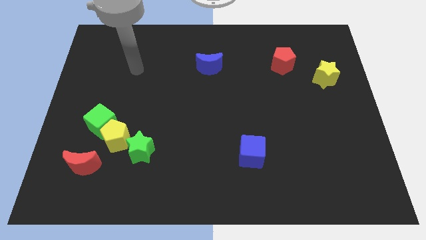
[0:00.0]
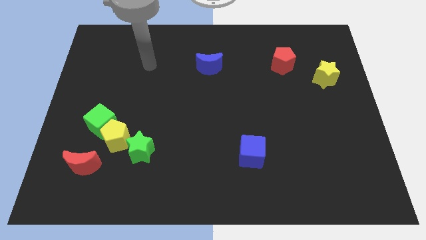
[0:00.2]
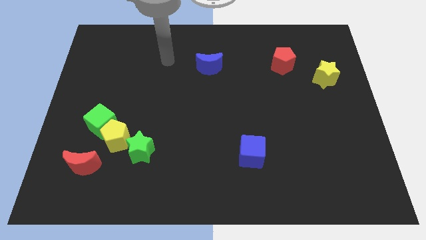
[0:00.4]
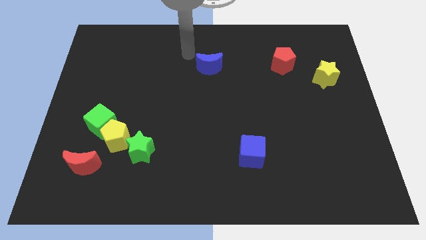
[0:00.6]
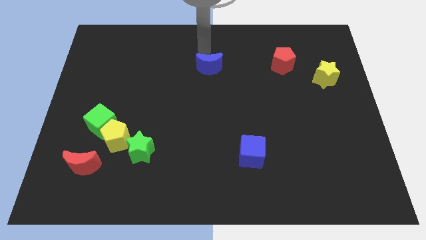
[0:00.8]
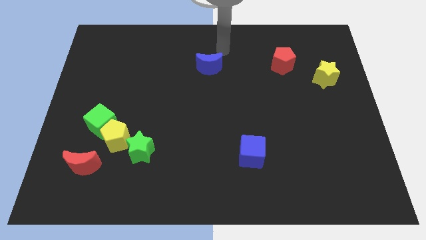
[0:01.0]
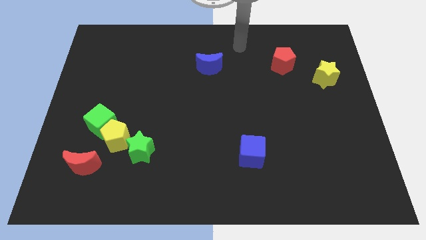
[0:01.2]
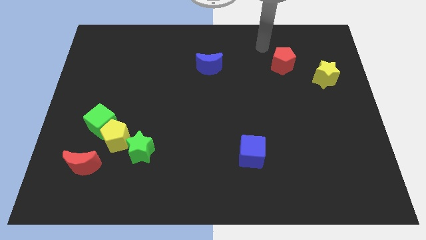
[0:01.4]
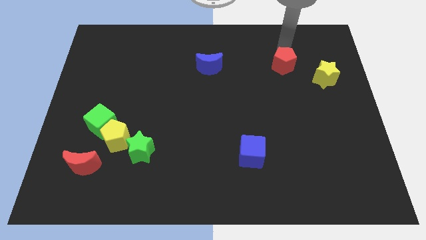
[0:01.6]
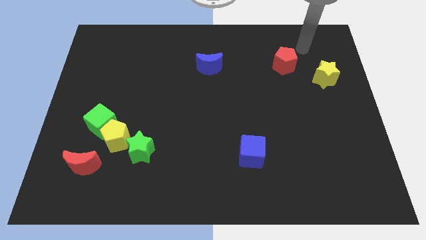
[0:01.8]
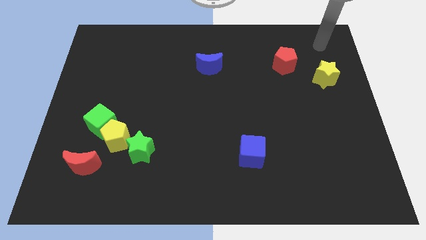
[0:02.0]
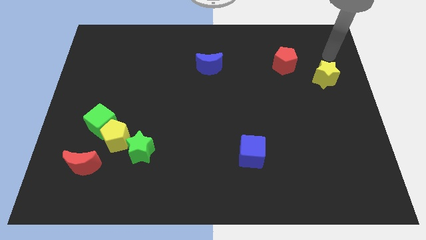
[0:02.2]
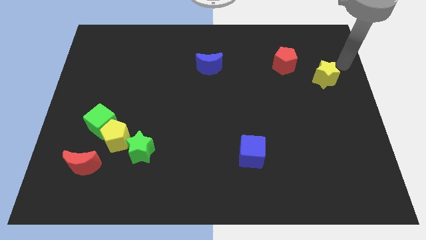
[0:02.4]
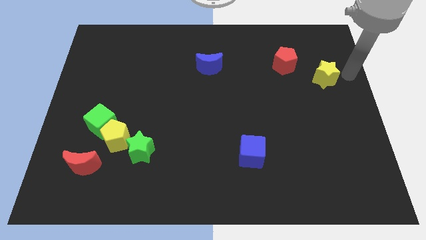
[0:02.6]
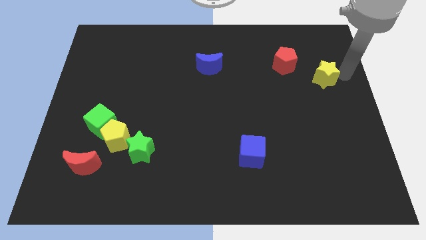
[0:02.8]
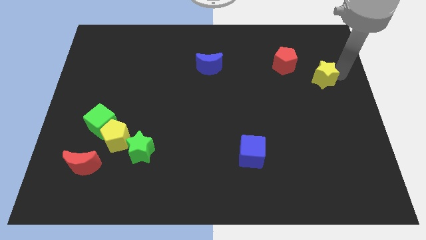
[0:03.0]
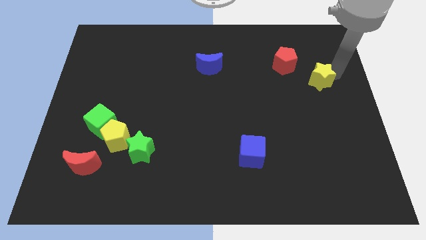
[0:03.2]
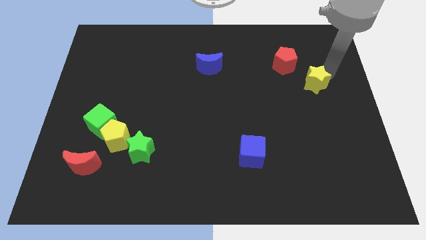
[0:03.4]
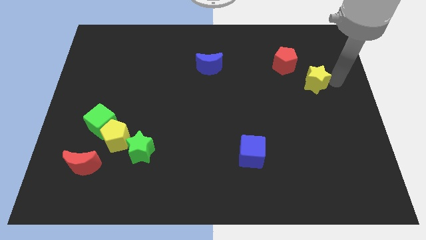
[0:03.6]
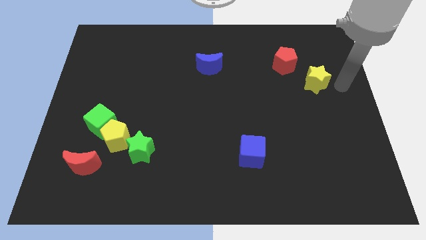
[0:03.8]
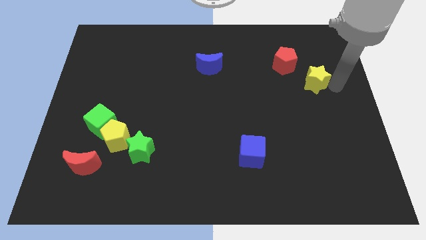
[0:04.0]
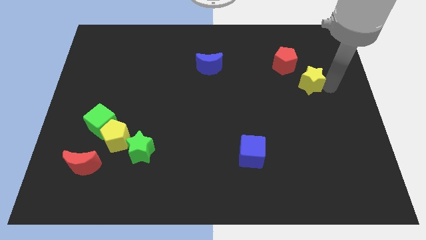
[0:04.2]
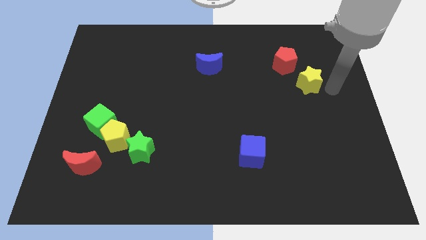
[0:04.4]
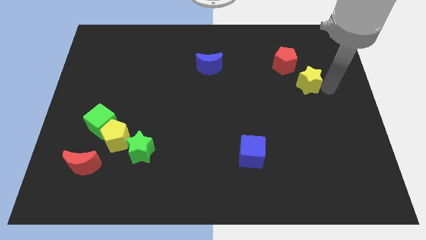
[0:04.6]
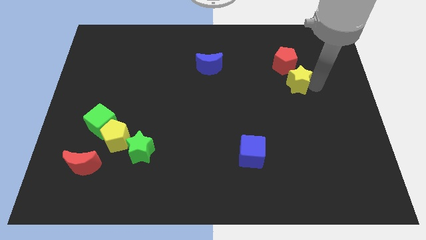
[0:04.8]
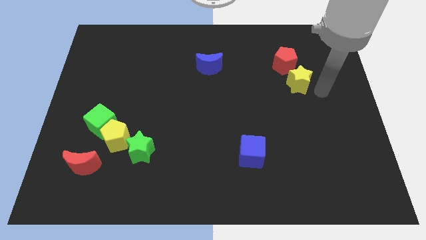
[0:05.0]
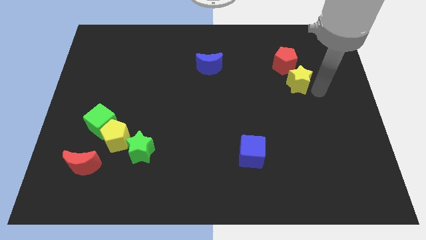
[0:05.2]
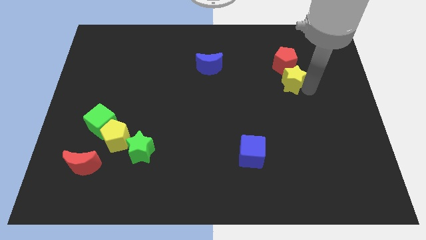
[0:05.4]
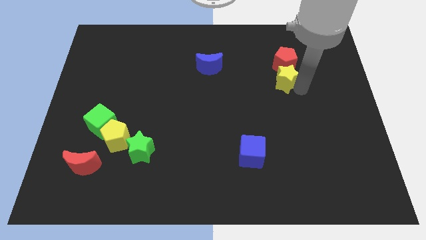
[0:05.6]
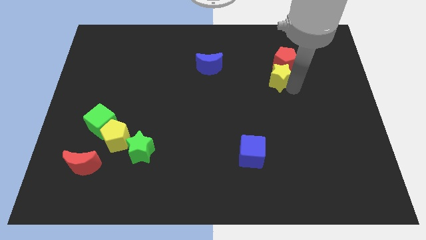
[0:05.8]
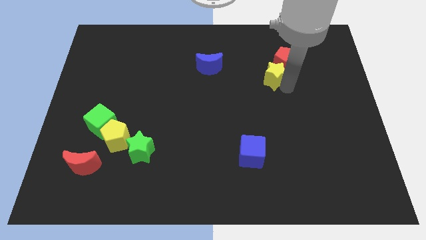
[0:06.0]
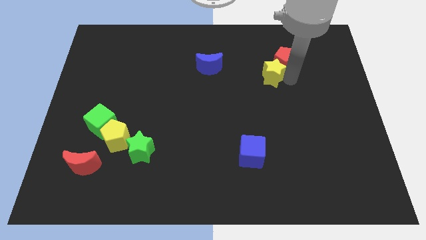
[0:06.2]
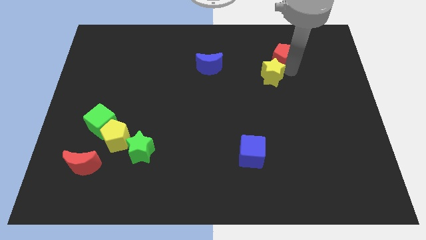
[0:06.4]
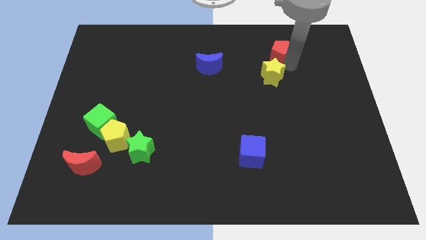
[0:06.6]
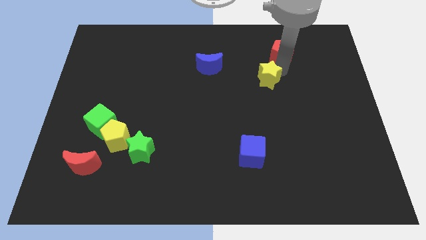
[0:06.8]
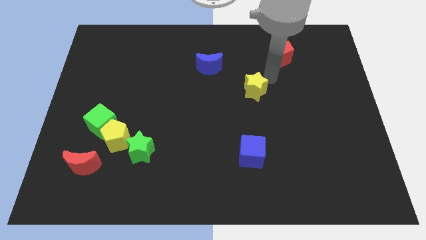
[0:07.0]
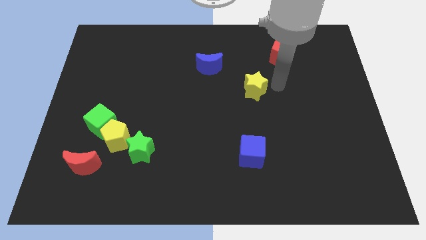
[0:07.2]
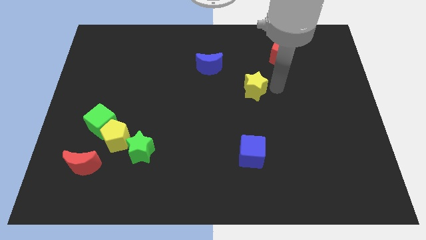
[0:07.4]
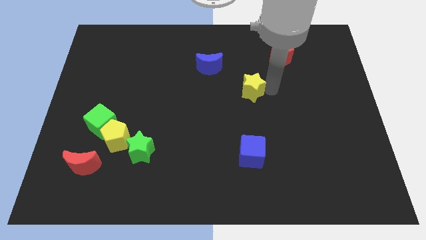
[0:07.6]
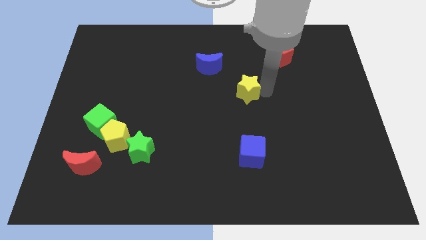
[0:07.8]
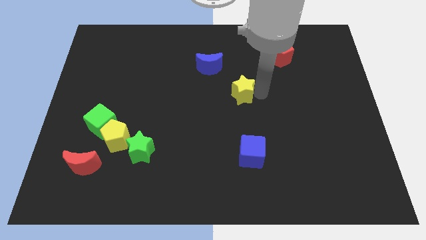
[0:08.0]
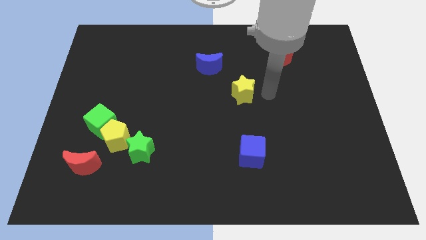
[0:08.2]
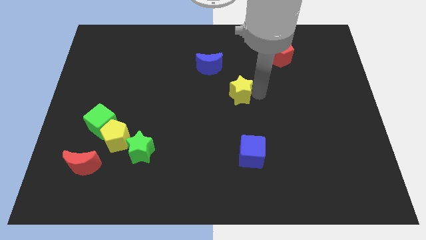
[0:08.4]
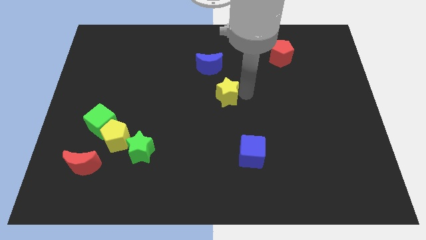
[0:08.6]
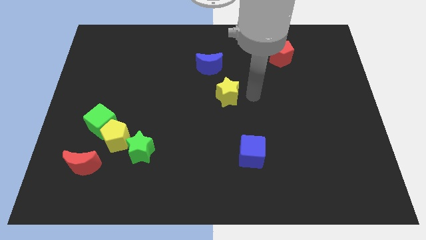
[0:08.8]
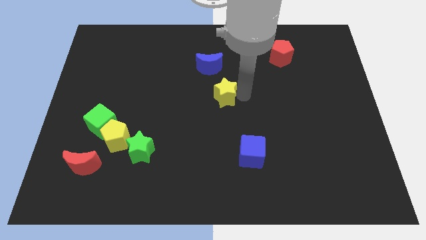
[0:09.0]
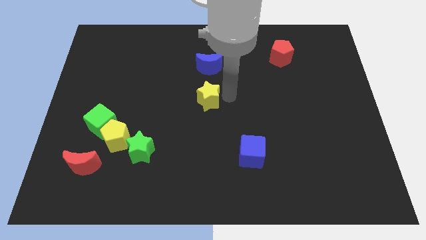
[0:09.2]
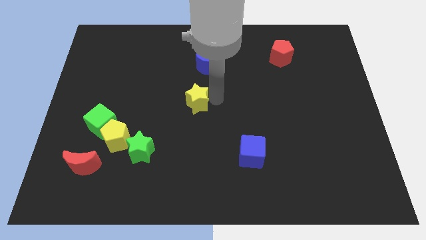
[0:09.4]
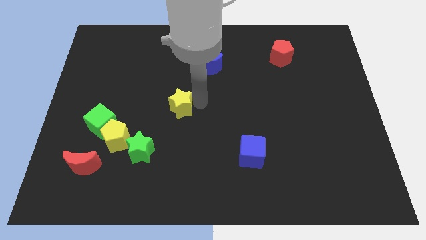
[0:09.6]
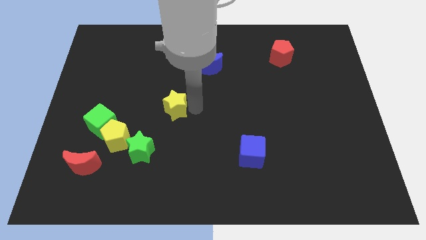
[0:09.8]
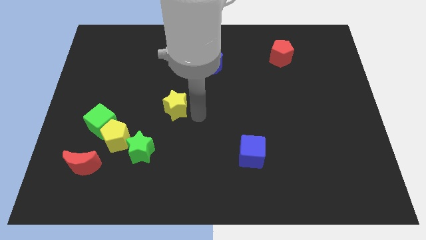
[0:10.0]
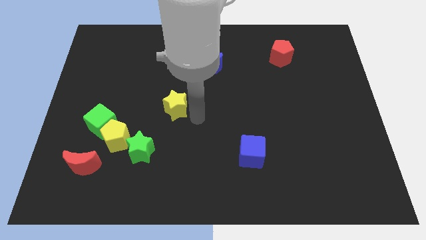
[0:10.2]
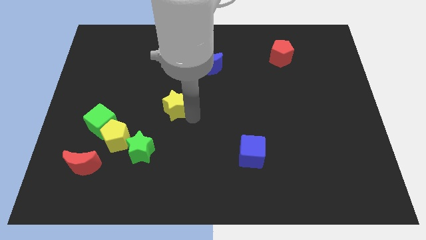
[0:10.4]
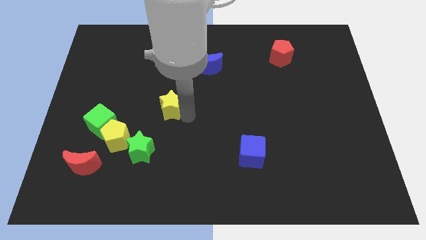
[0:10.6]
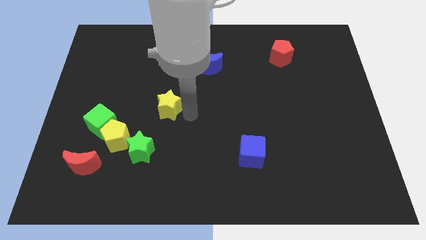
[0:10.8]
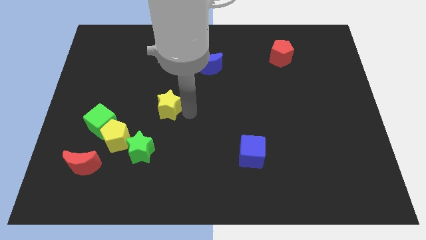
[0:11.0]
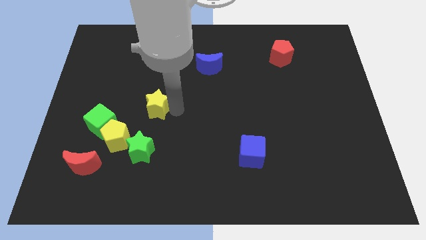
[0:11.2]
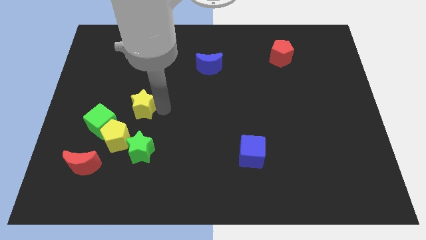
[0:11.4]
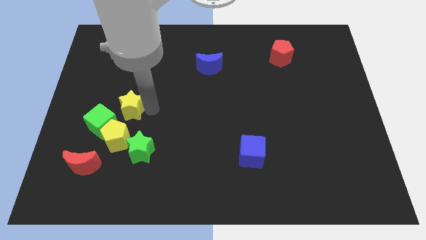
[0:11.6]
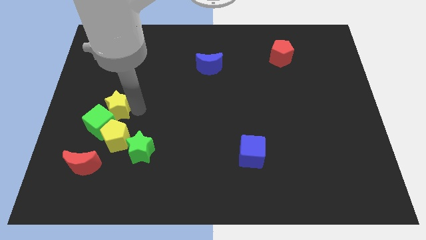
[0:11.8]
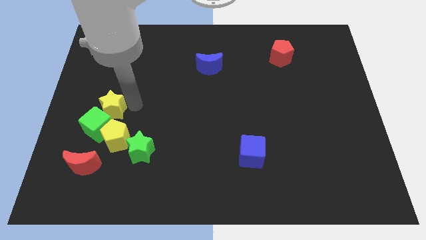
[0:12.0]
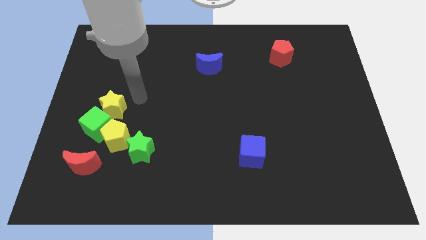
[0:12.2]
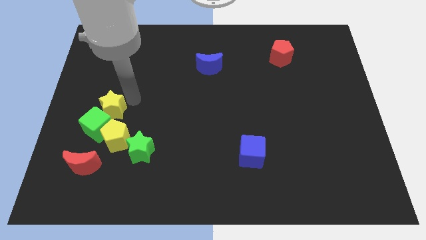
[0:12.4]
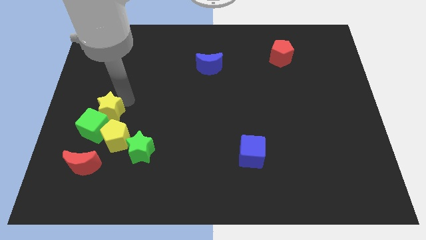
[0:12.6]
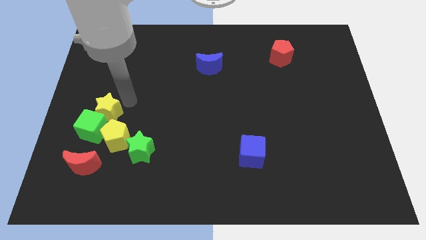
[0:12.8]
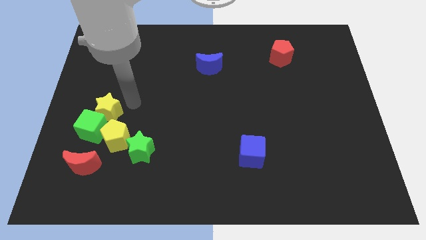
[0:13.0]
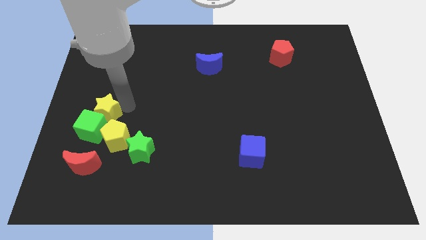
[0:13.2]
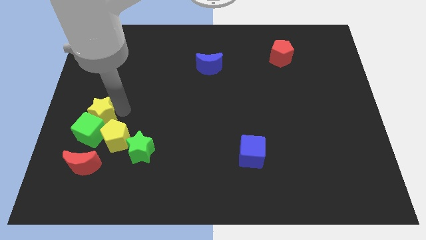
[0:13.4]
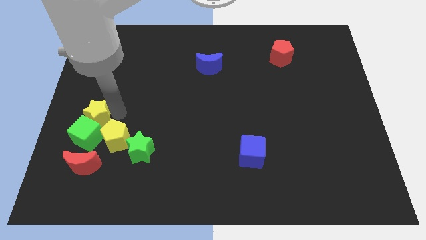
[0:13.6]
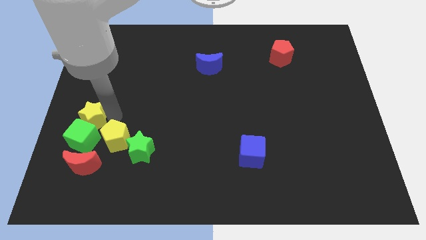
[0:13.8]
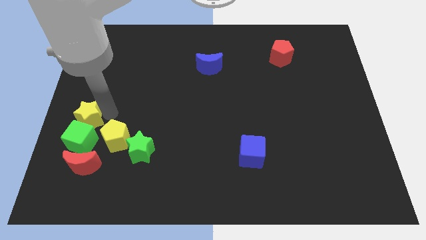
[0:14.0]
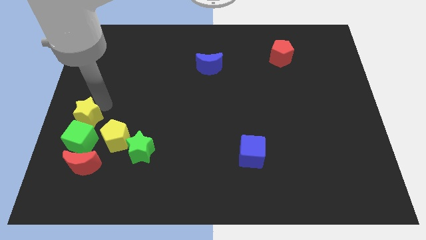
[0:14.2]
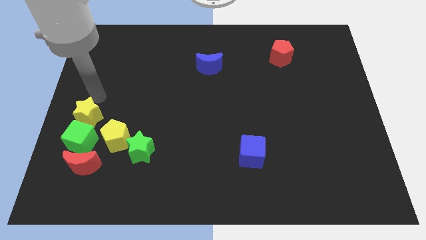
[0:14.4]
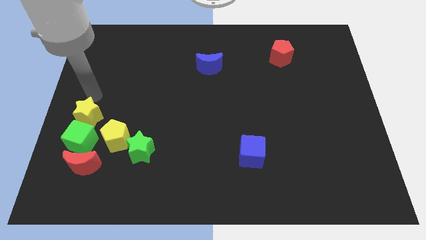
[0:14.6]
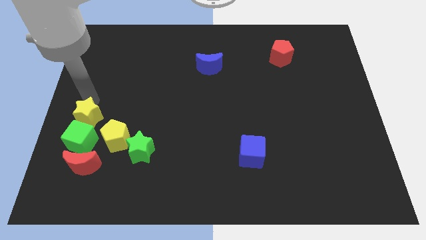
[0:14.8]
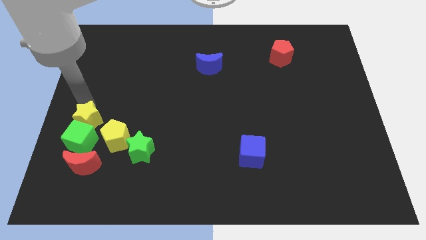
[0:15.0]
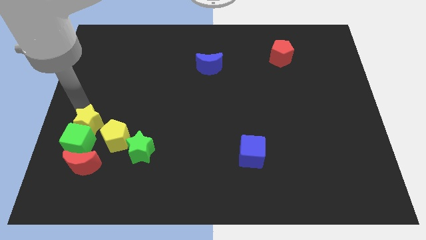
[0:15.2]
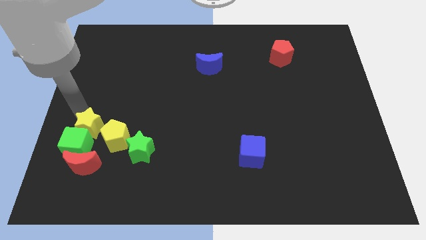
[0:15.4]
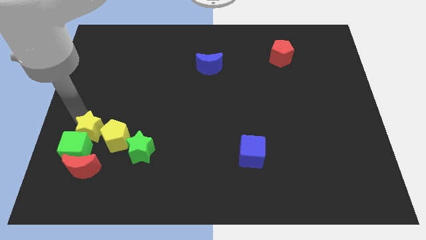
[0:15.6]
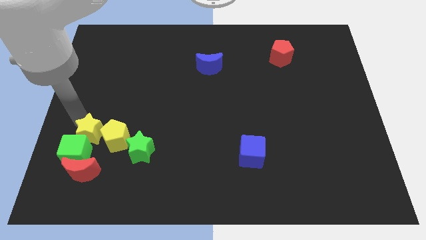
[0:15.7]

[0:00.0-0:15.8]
move the yellow star just left of the green star
